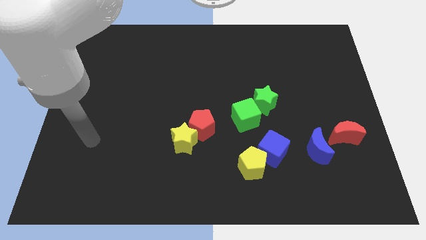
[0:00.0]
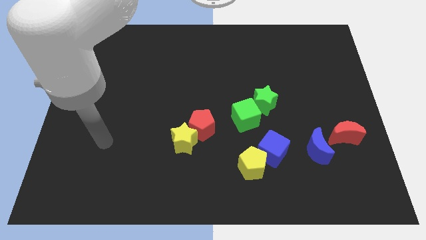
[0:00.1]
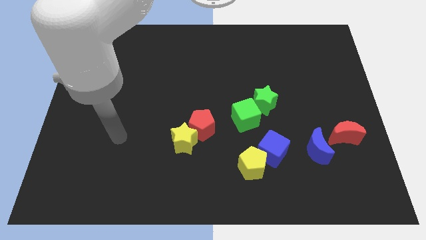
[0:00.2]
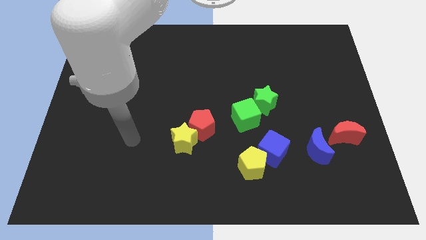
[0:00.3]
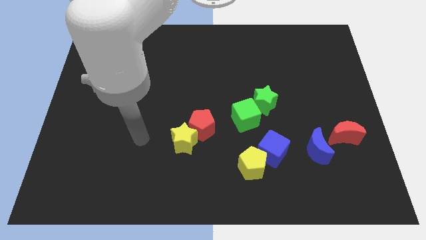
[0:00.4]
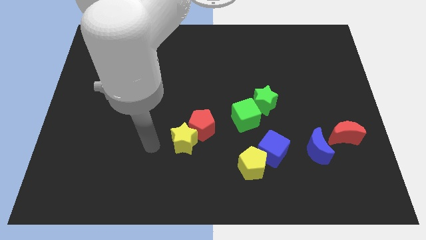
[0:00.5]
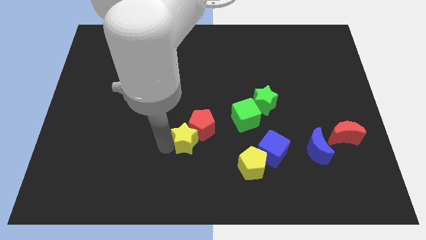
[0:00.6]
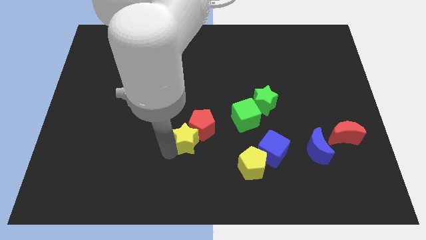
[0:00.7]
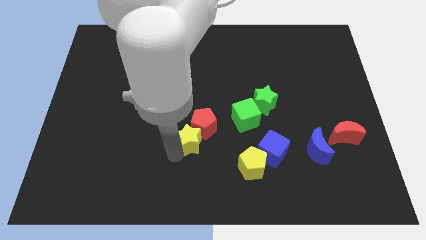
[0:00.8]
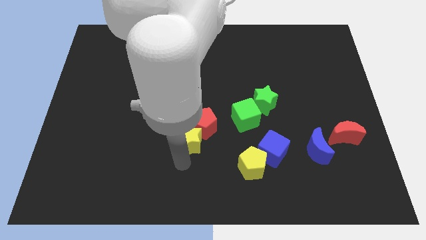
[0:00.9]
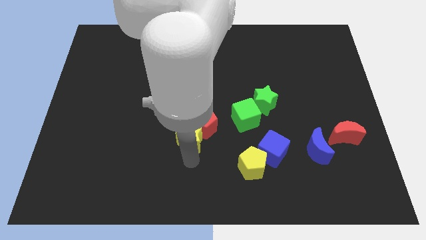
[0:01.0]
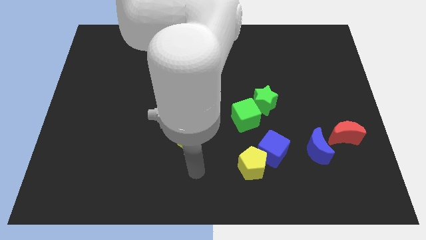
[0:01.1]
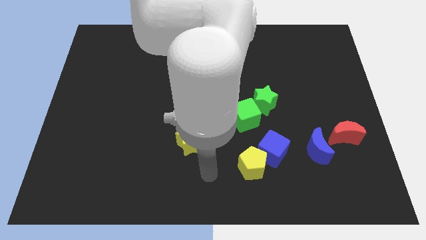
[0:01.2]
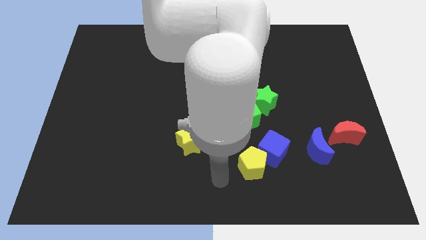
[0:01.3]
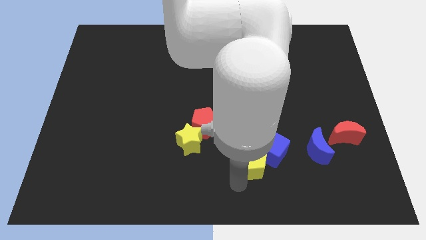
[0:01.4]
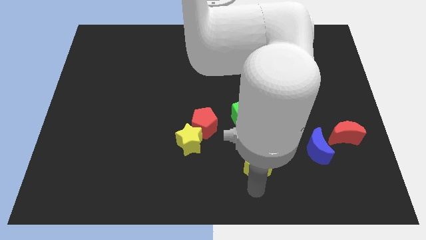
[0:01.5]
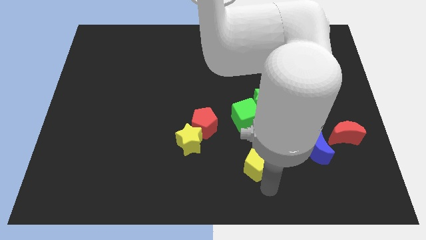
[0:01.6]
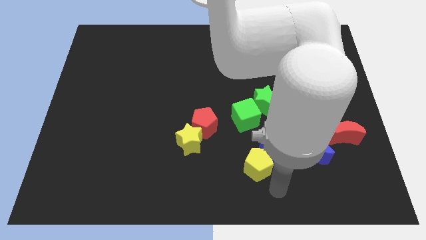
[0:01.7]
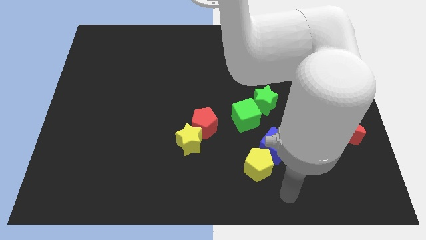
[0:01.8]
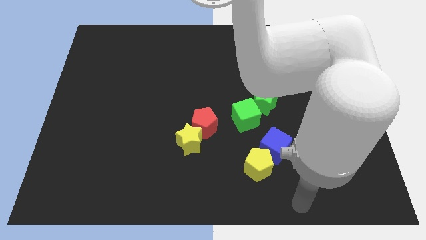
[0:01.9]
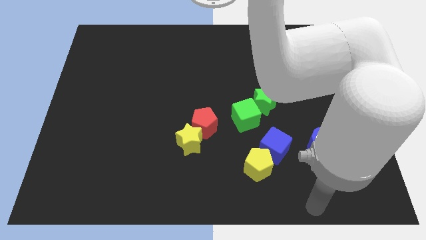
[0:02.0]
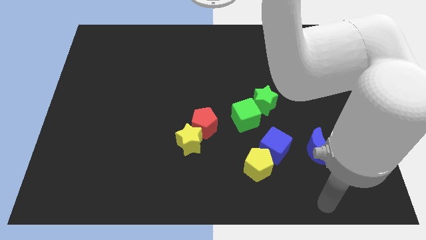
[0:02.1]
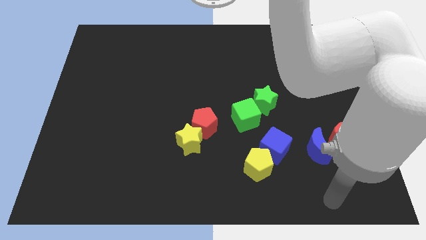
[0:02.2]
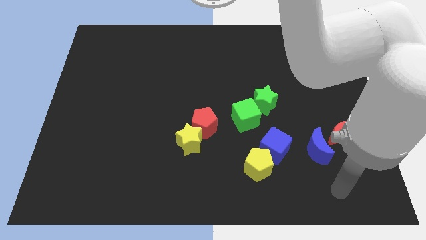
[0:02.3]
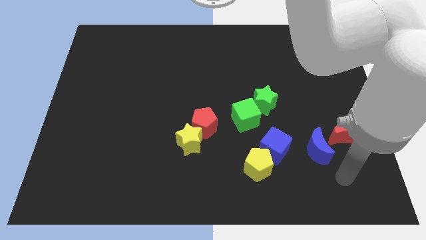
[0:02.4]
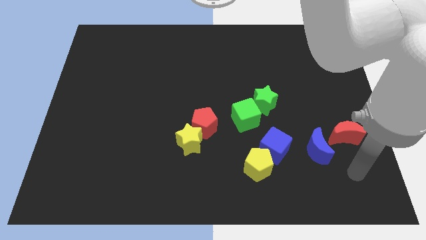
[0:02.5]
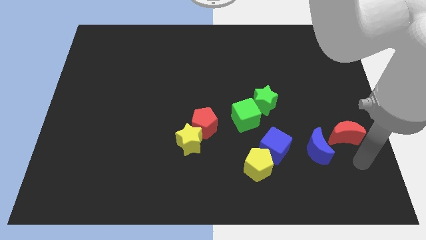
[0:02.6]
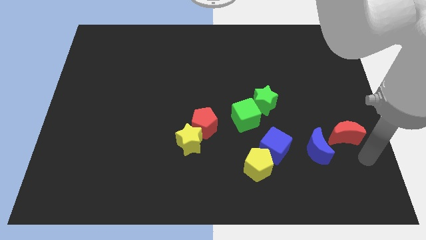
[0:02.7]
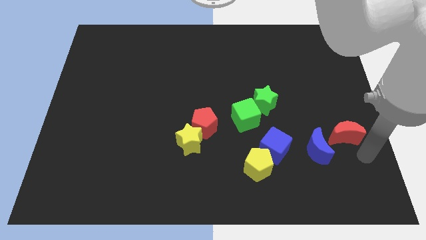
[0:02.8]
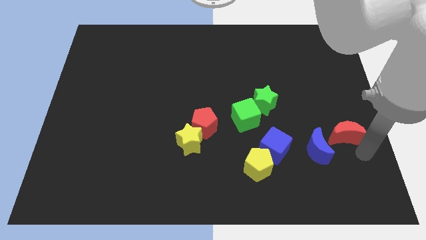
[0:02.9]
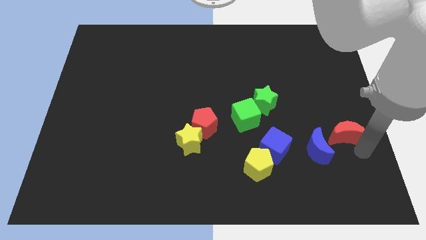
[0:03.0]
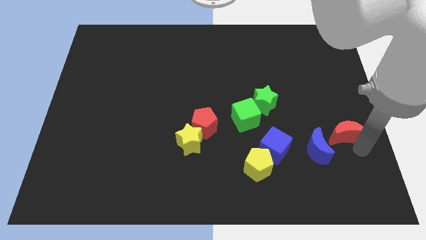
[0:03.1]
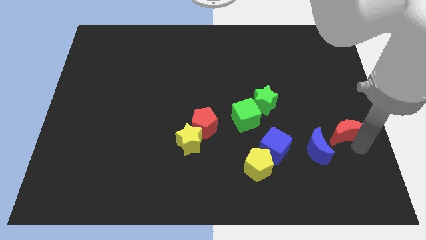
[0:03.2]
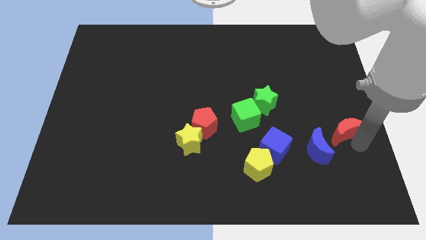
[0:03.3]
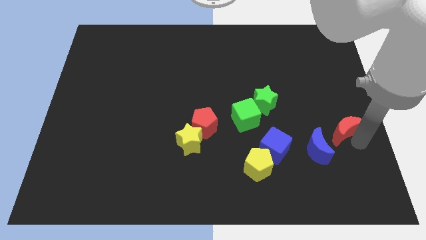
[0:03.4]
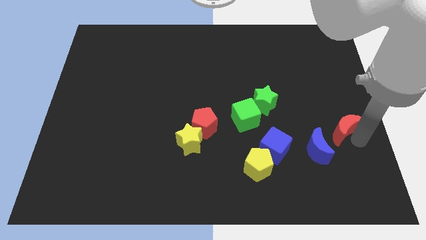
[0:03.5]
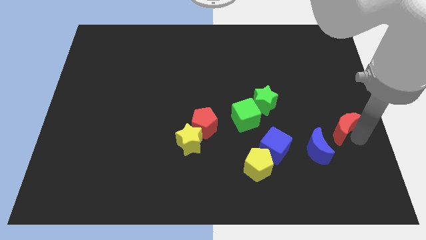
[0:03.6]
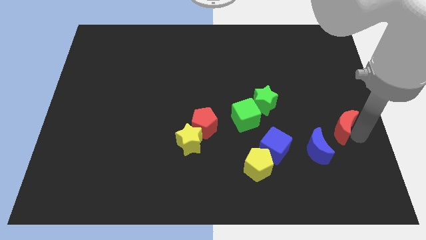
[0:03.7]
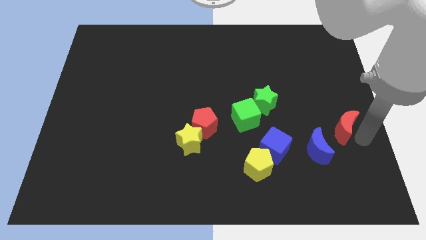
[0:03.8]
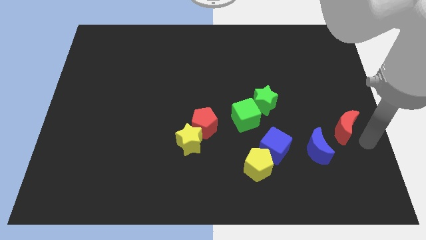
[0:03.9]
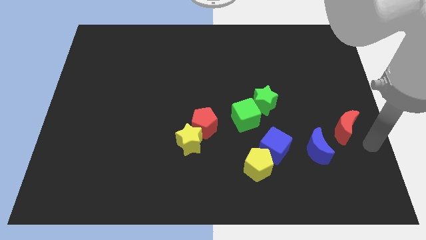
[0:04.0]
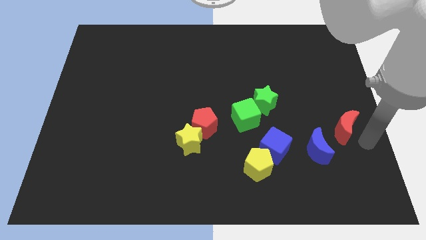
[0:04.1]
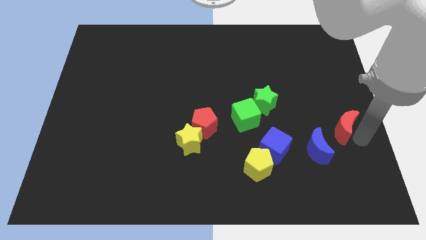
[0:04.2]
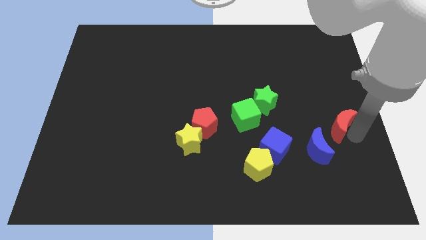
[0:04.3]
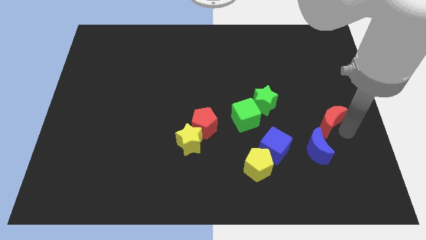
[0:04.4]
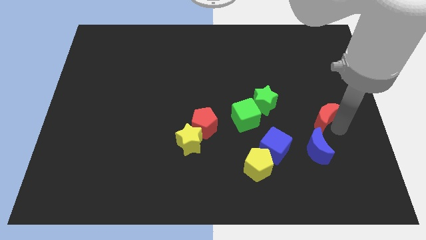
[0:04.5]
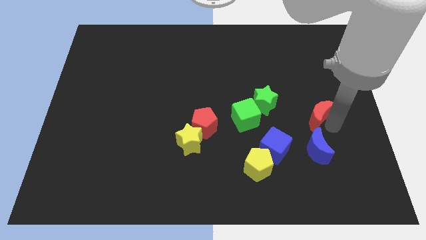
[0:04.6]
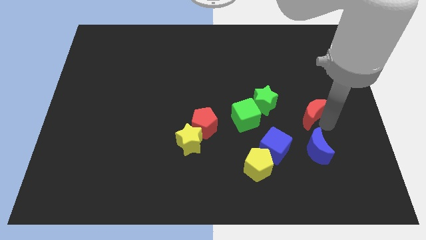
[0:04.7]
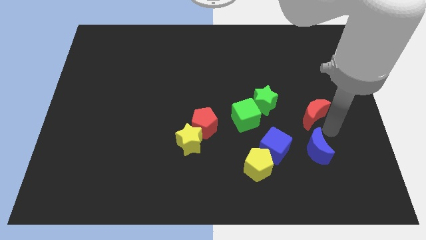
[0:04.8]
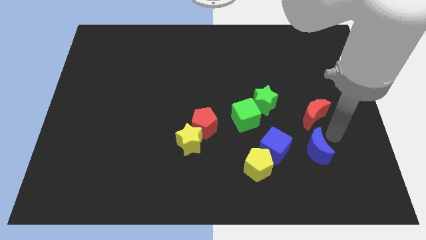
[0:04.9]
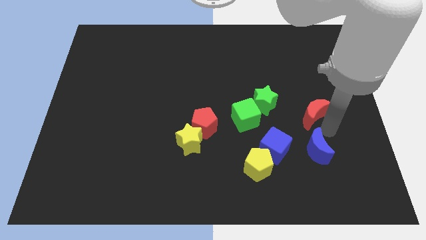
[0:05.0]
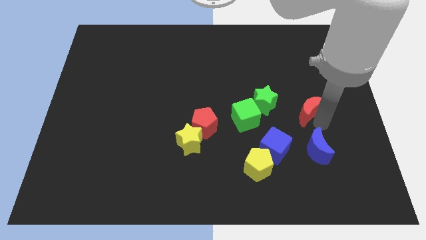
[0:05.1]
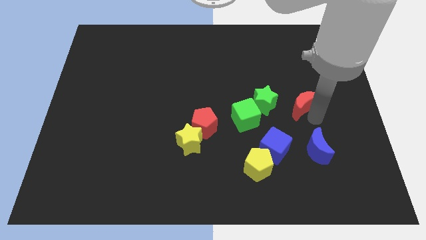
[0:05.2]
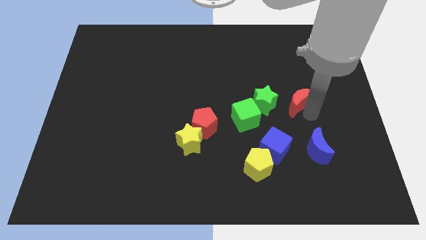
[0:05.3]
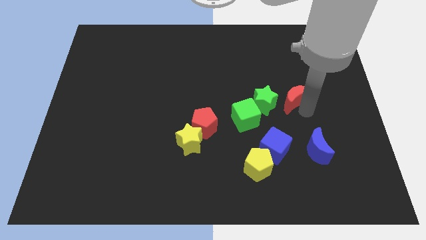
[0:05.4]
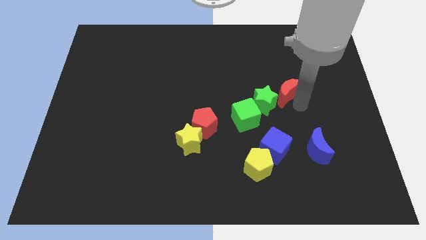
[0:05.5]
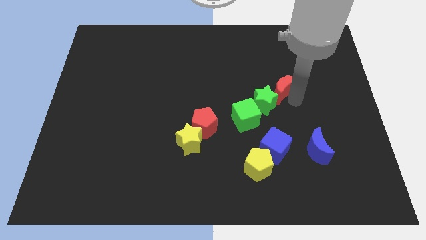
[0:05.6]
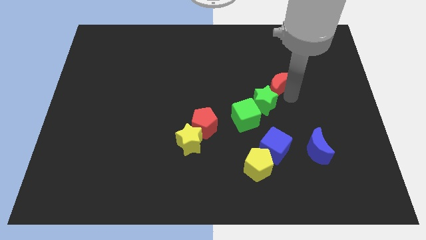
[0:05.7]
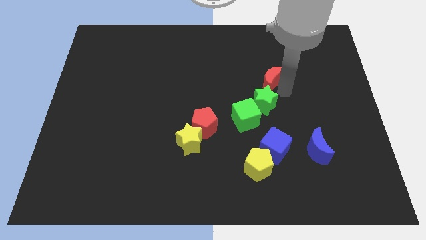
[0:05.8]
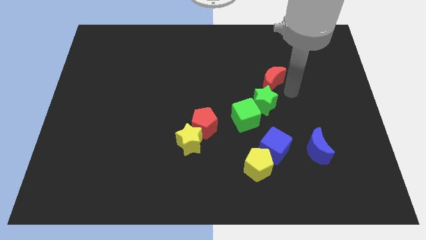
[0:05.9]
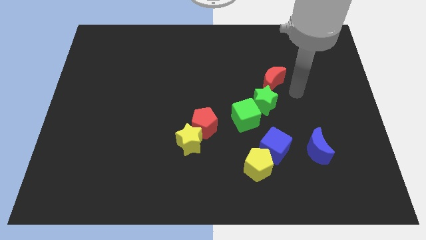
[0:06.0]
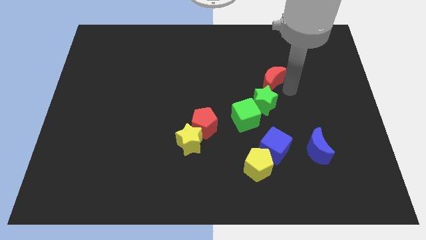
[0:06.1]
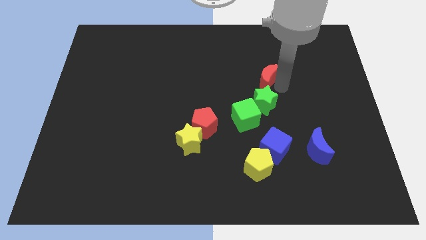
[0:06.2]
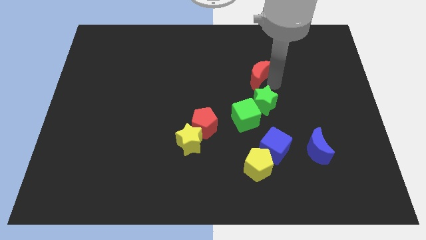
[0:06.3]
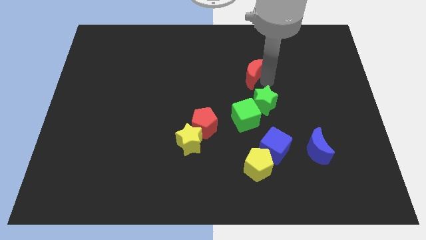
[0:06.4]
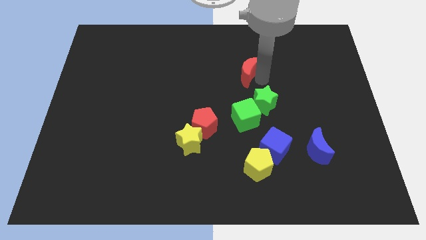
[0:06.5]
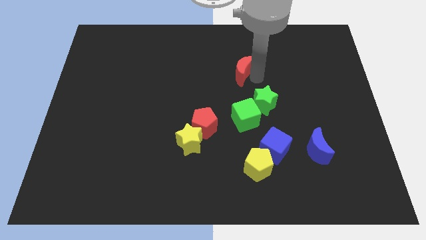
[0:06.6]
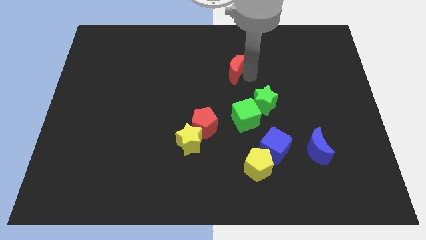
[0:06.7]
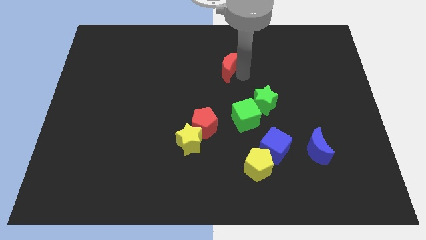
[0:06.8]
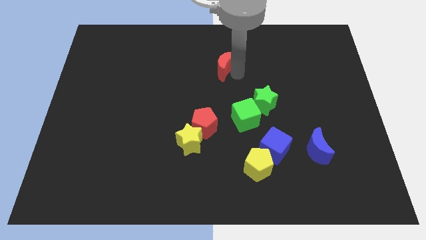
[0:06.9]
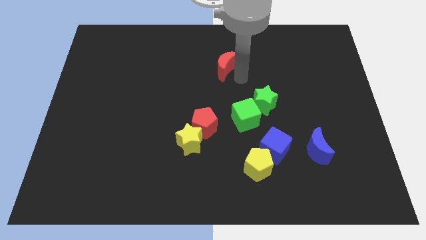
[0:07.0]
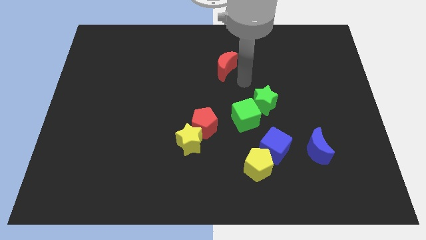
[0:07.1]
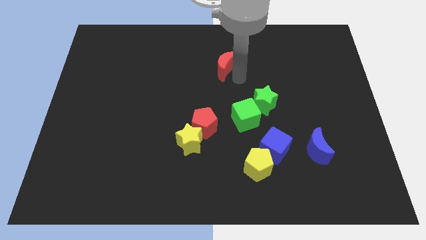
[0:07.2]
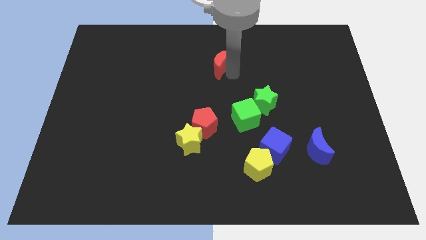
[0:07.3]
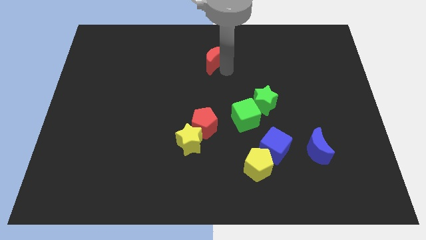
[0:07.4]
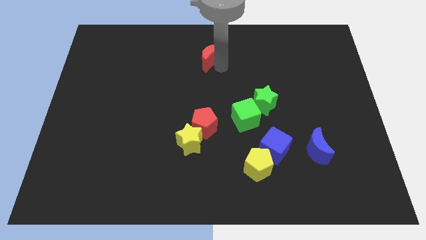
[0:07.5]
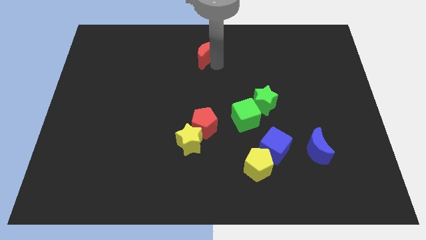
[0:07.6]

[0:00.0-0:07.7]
put the red moon to the top side
